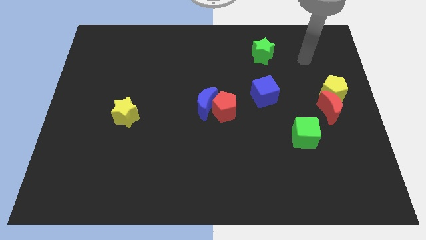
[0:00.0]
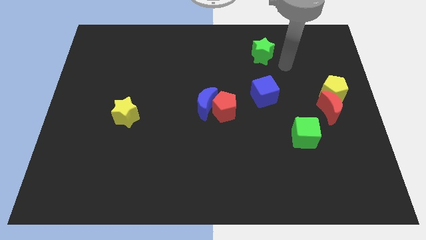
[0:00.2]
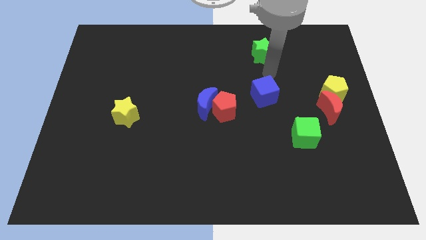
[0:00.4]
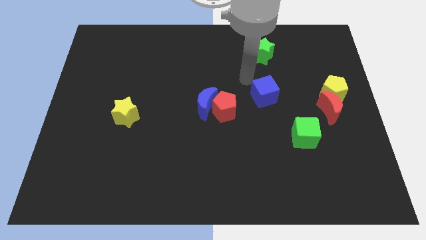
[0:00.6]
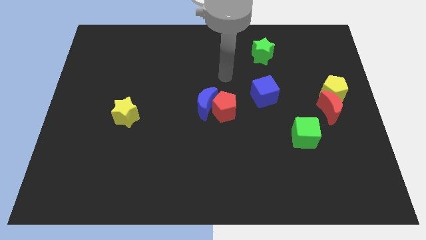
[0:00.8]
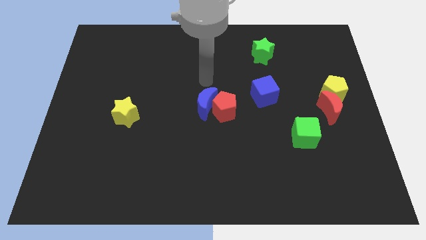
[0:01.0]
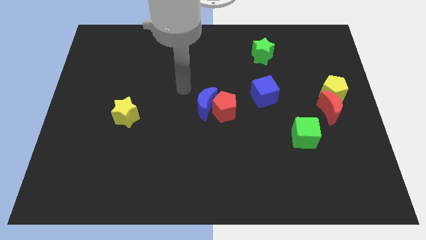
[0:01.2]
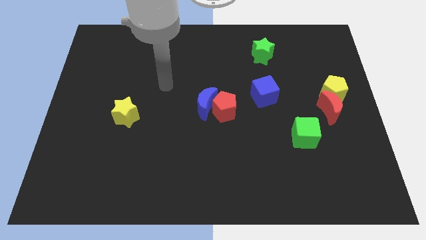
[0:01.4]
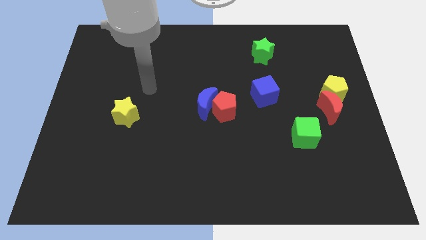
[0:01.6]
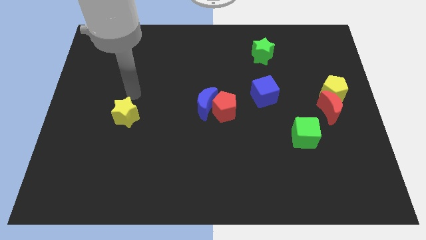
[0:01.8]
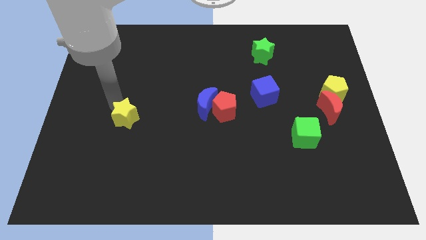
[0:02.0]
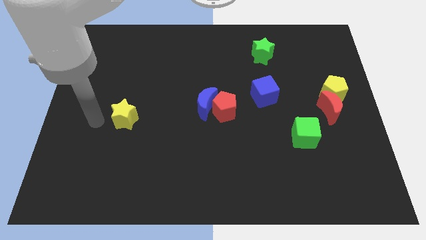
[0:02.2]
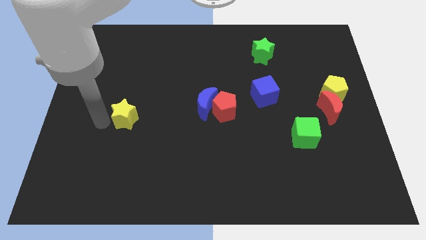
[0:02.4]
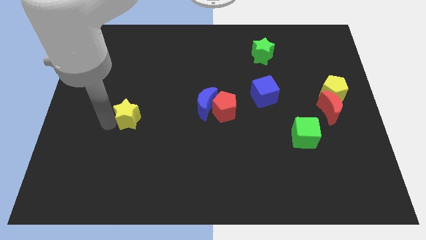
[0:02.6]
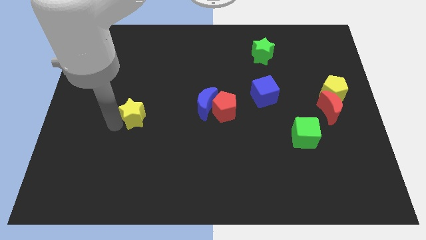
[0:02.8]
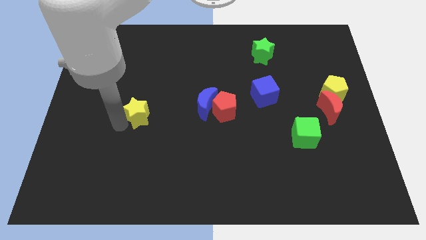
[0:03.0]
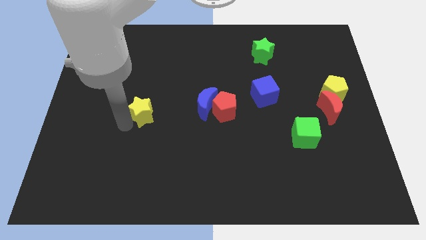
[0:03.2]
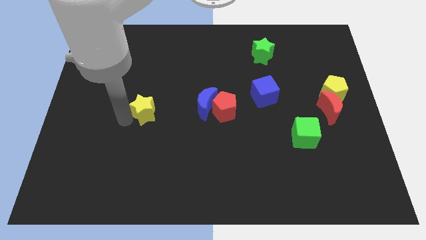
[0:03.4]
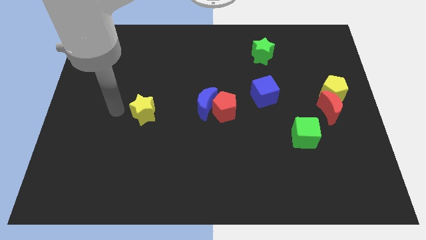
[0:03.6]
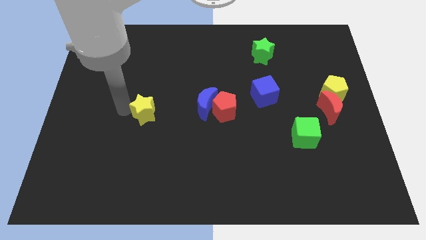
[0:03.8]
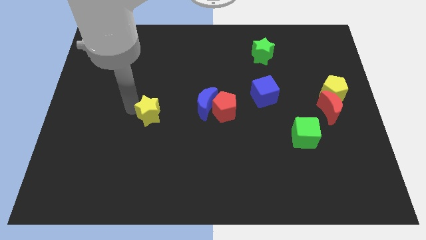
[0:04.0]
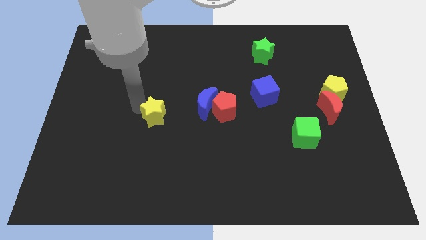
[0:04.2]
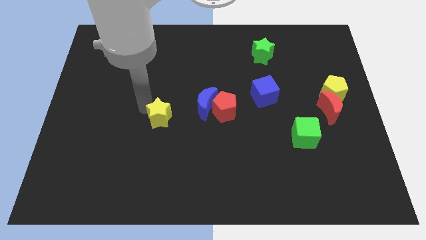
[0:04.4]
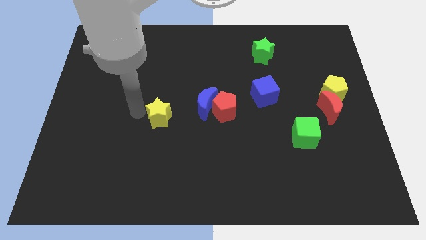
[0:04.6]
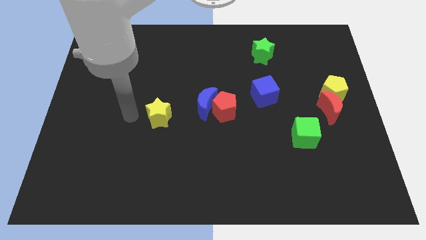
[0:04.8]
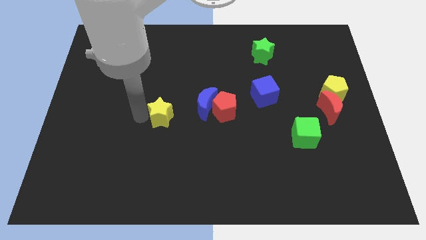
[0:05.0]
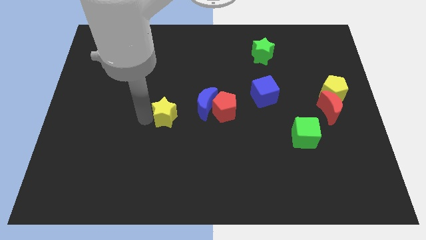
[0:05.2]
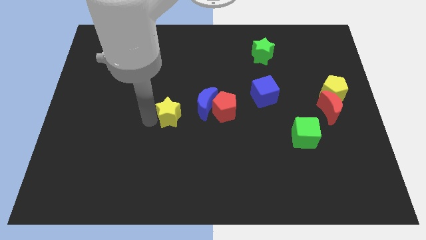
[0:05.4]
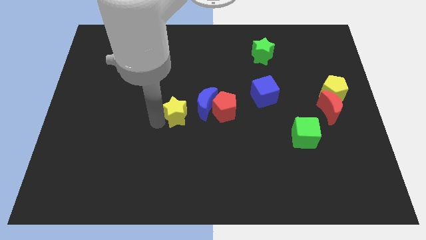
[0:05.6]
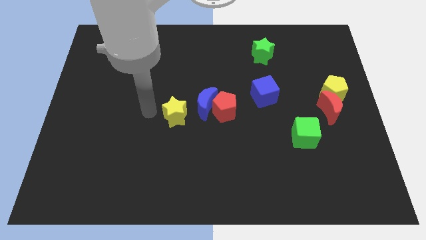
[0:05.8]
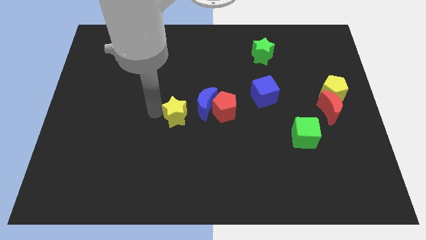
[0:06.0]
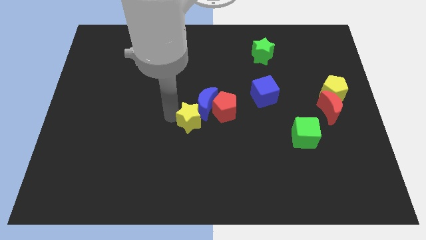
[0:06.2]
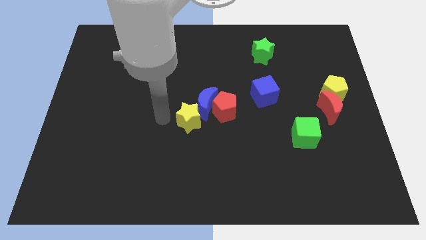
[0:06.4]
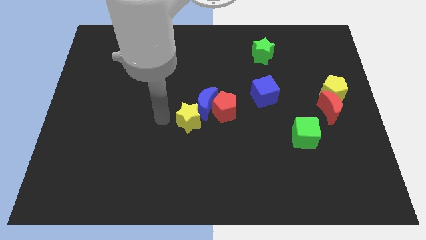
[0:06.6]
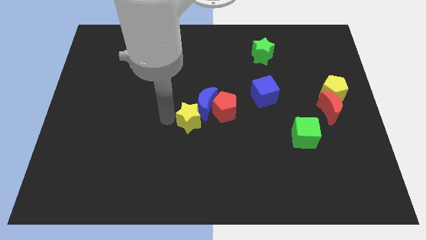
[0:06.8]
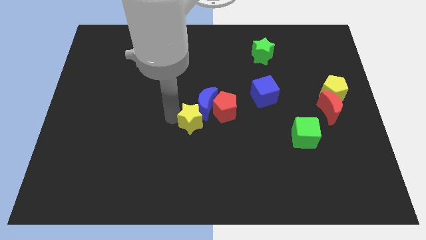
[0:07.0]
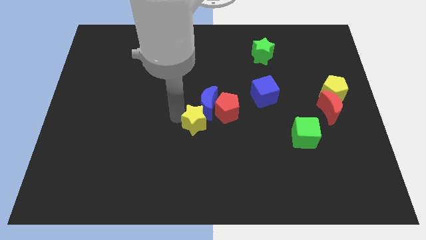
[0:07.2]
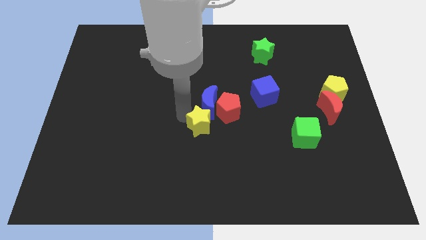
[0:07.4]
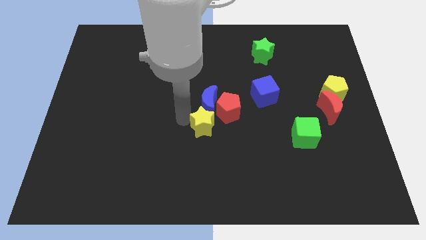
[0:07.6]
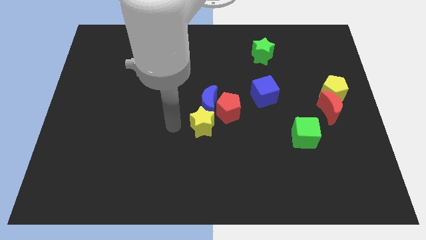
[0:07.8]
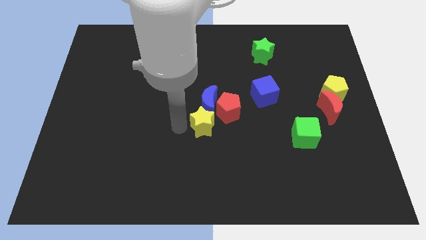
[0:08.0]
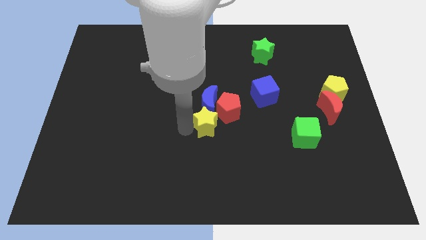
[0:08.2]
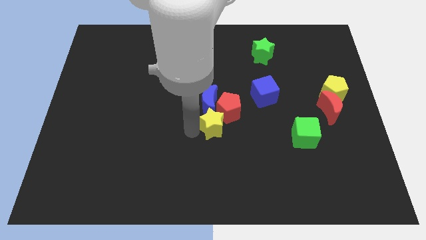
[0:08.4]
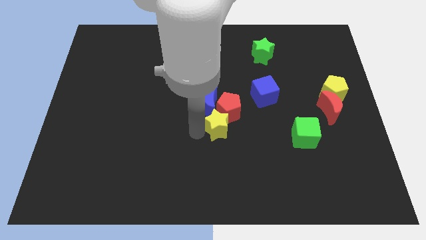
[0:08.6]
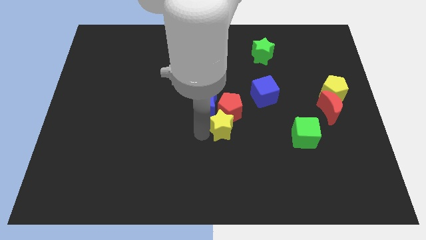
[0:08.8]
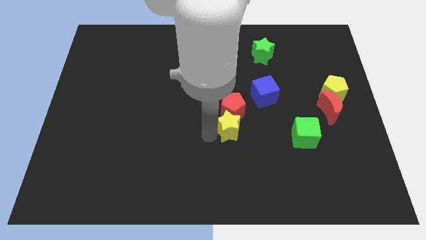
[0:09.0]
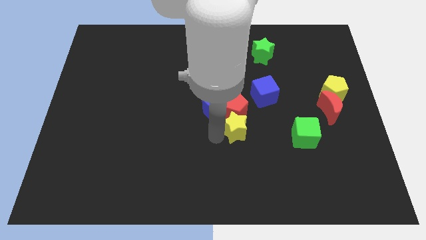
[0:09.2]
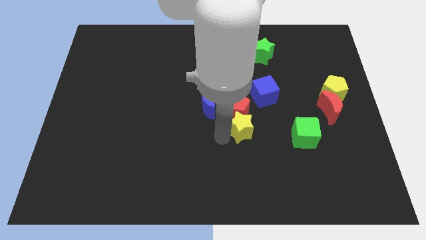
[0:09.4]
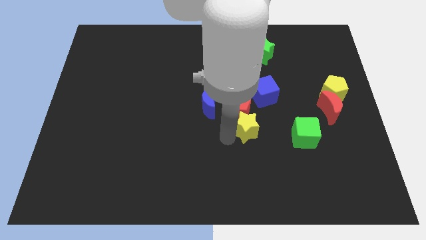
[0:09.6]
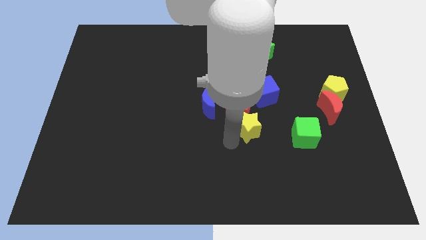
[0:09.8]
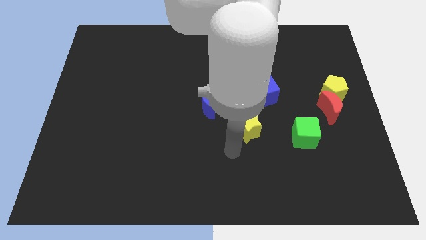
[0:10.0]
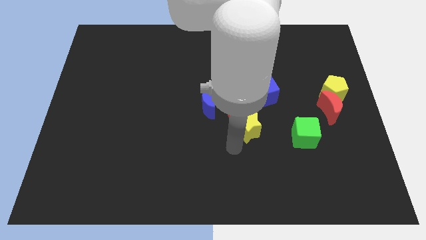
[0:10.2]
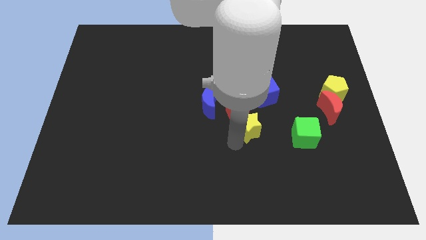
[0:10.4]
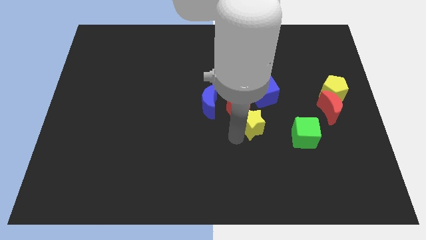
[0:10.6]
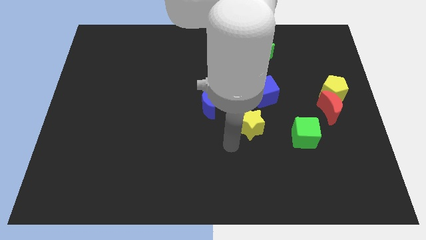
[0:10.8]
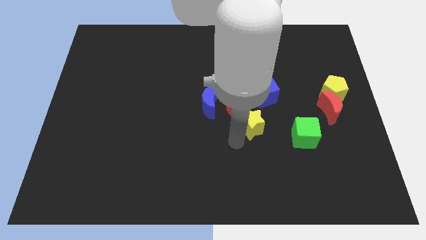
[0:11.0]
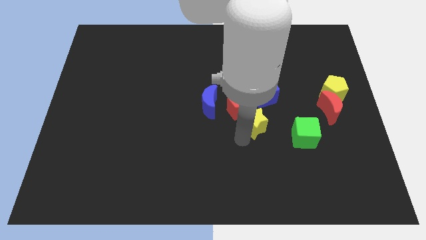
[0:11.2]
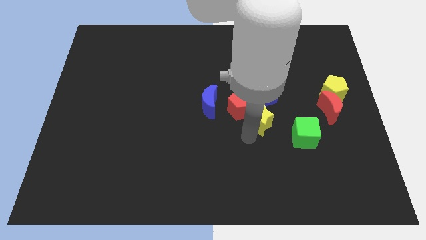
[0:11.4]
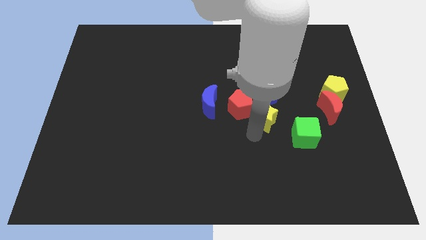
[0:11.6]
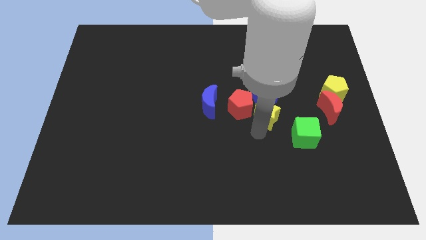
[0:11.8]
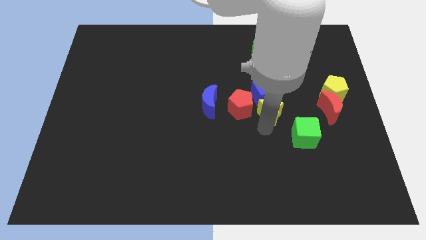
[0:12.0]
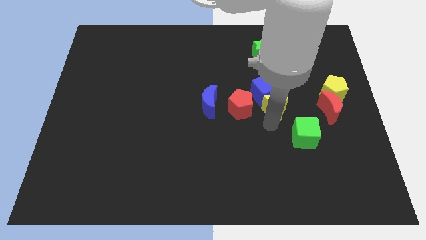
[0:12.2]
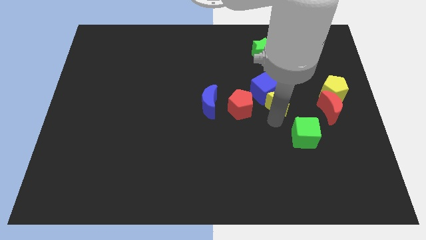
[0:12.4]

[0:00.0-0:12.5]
put the yellow star to the left side of the yellow pentagon

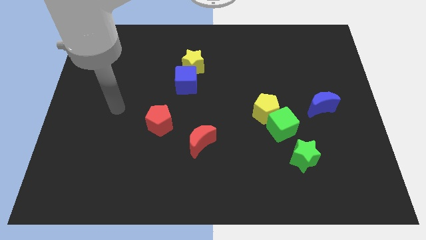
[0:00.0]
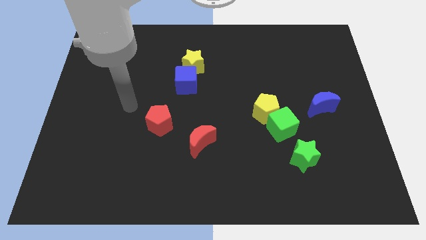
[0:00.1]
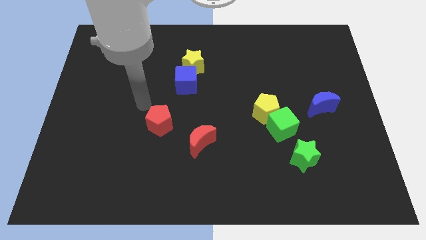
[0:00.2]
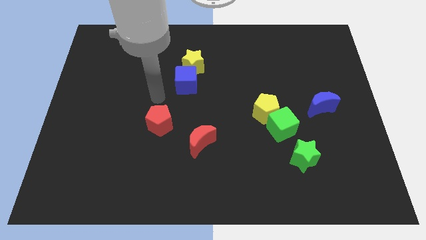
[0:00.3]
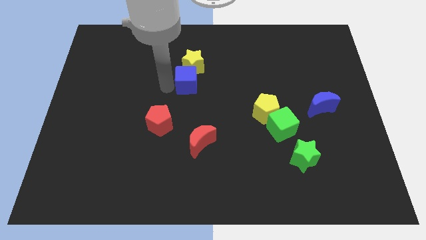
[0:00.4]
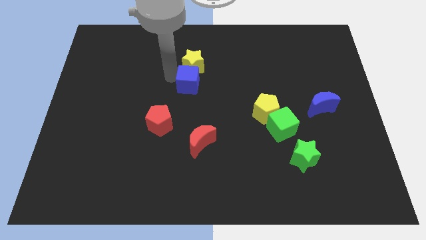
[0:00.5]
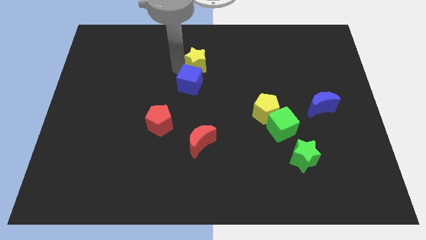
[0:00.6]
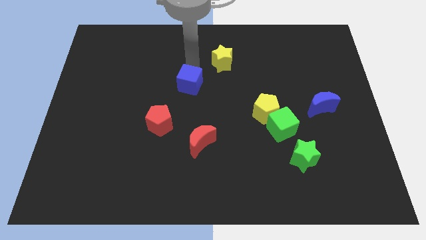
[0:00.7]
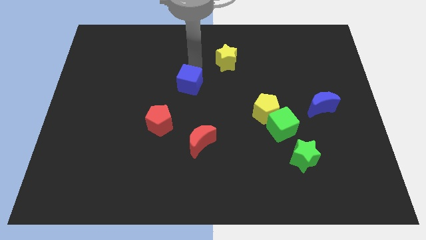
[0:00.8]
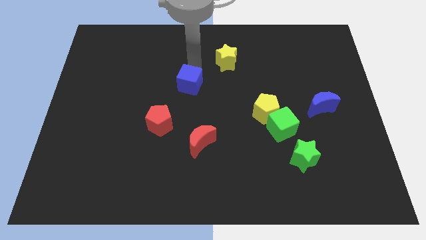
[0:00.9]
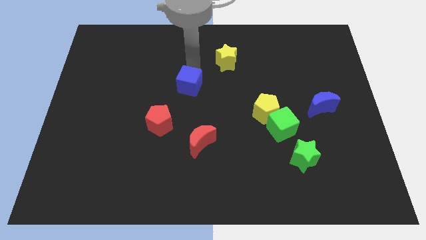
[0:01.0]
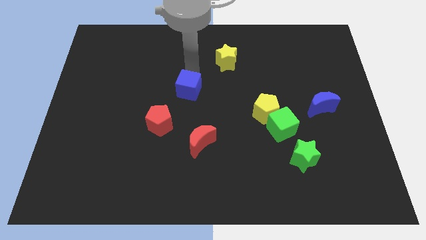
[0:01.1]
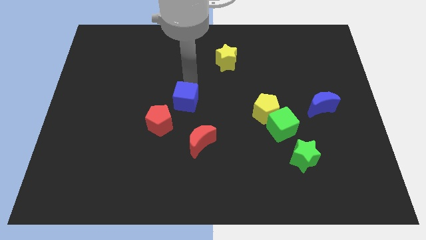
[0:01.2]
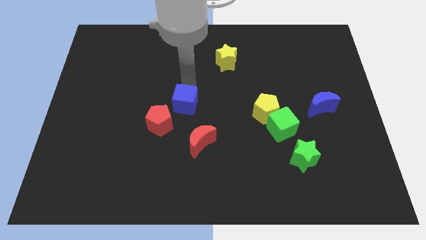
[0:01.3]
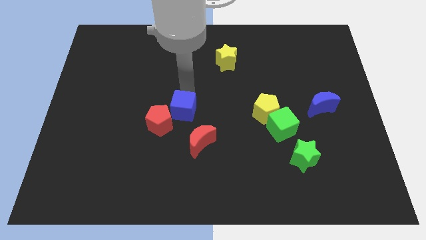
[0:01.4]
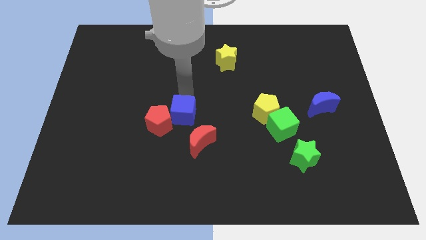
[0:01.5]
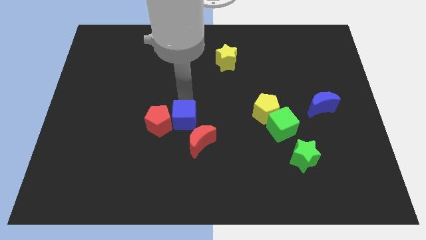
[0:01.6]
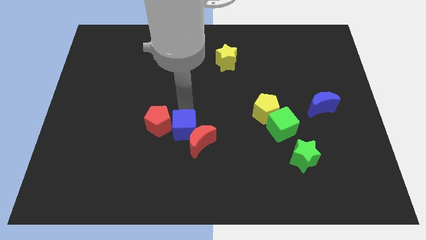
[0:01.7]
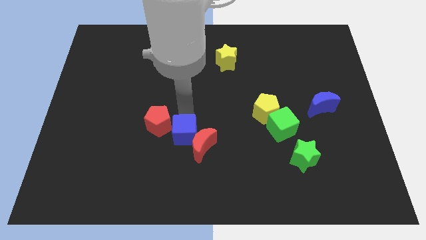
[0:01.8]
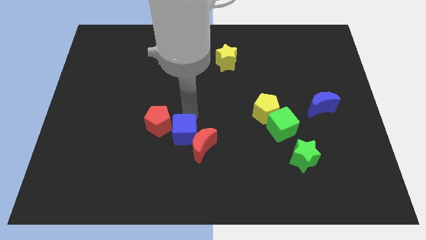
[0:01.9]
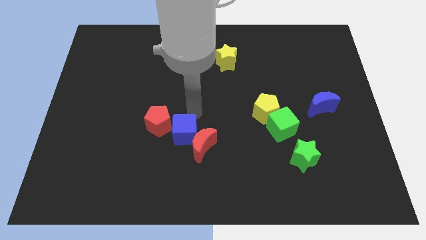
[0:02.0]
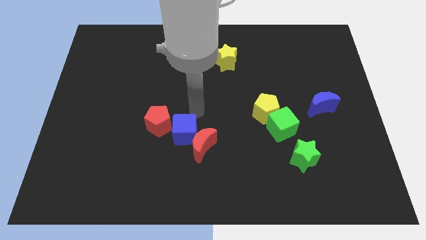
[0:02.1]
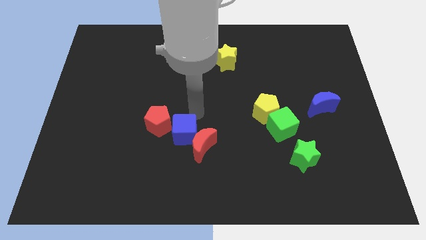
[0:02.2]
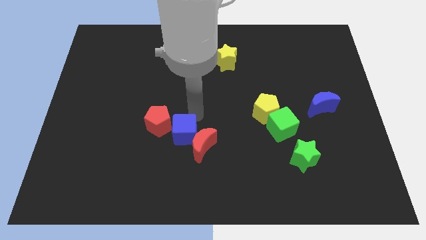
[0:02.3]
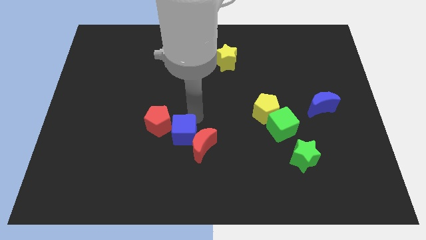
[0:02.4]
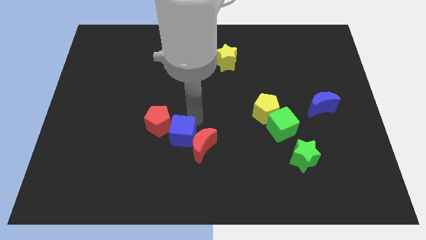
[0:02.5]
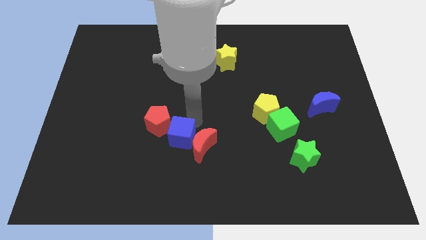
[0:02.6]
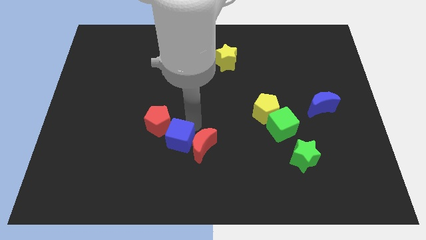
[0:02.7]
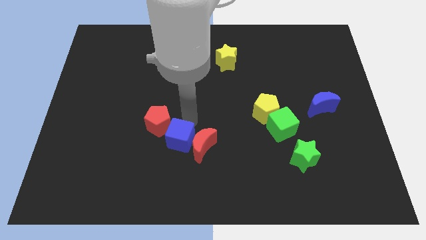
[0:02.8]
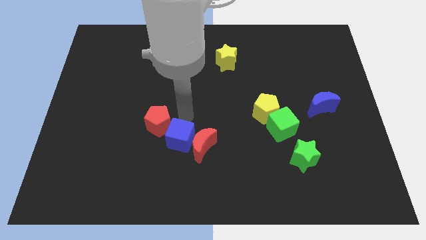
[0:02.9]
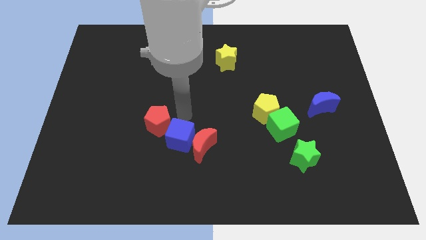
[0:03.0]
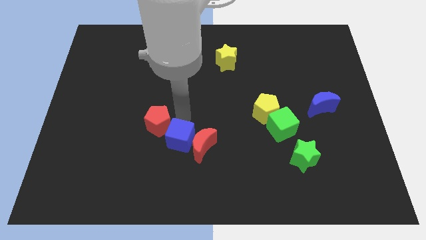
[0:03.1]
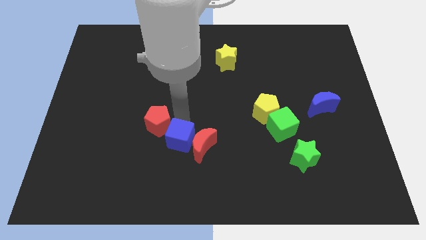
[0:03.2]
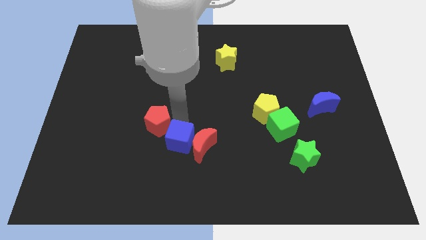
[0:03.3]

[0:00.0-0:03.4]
push the blue cube diagonally down and to the left of the red moon
